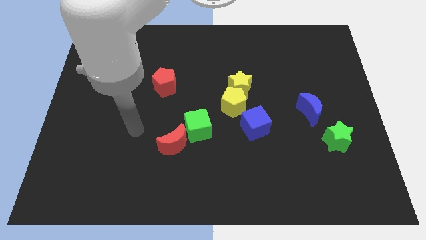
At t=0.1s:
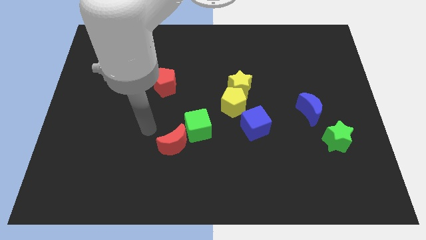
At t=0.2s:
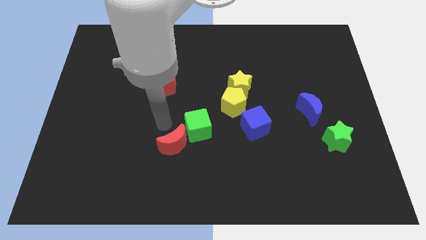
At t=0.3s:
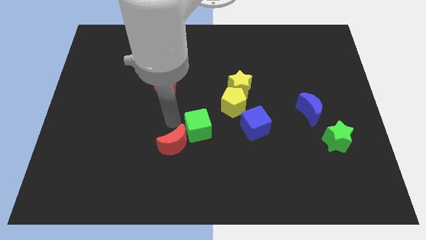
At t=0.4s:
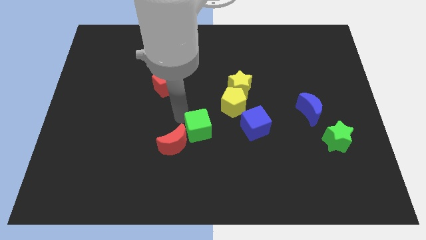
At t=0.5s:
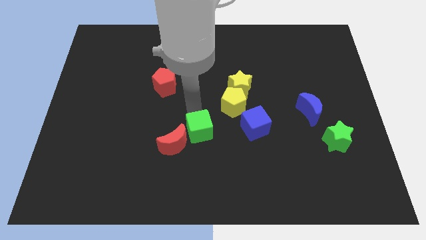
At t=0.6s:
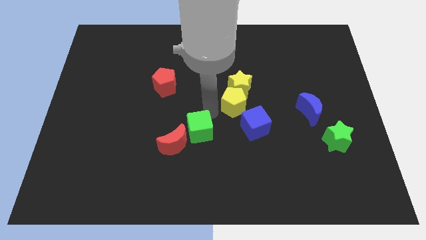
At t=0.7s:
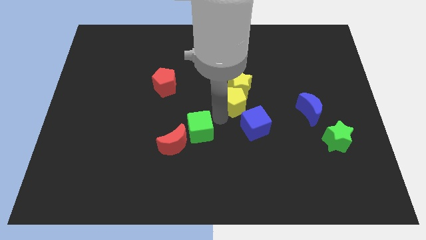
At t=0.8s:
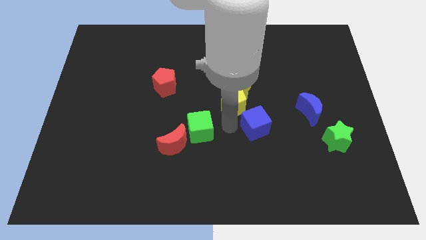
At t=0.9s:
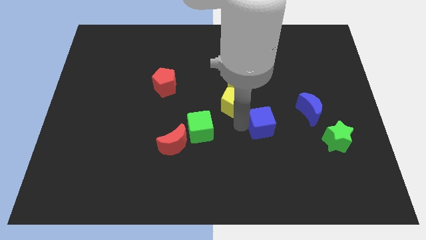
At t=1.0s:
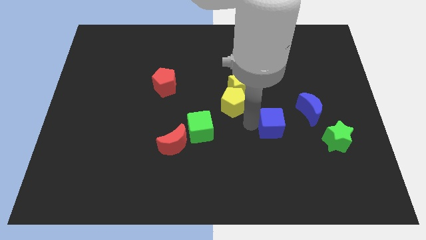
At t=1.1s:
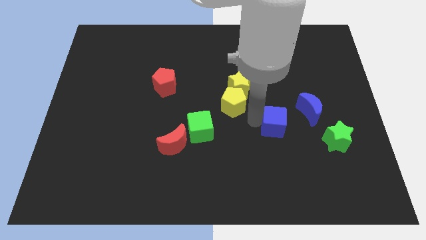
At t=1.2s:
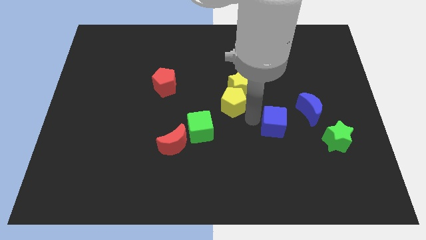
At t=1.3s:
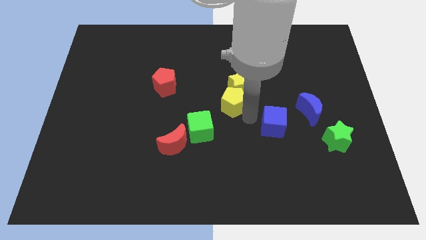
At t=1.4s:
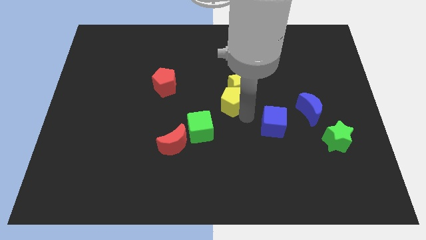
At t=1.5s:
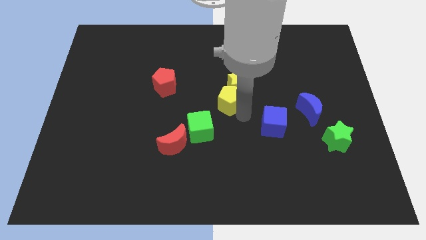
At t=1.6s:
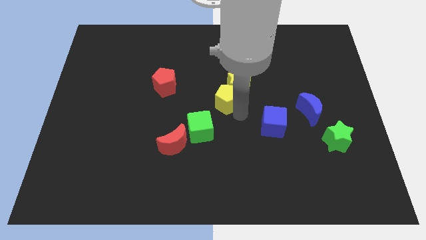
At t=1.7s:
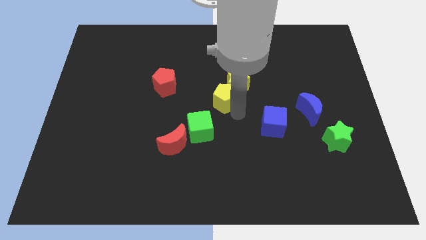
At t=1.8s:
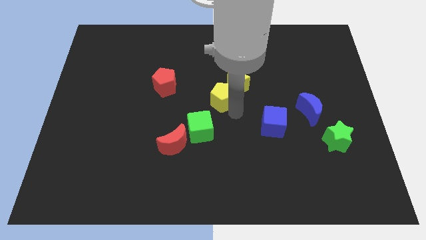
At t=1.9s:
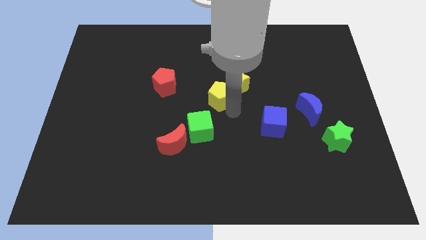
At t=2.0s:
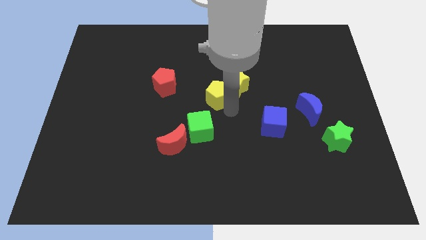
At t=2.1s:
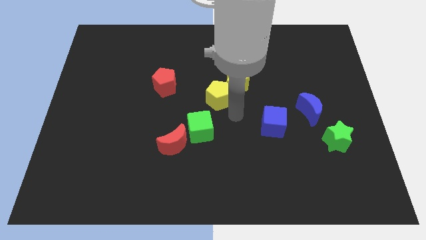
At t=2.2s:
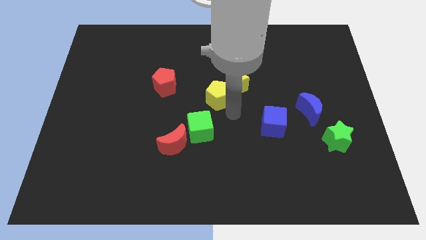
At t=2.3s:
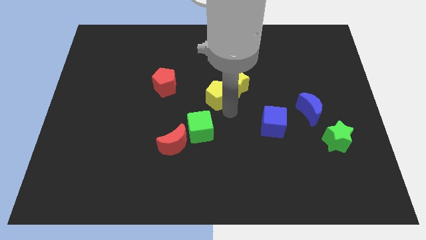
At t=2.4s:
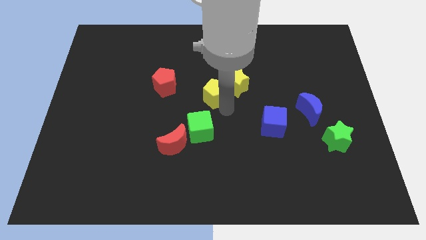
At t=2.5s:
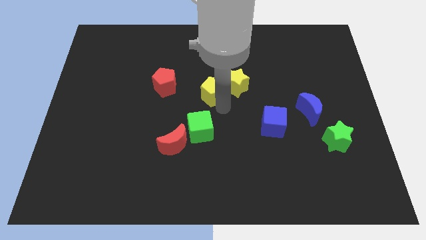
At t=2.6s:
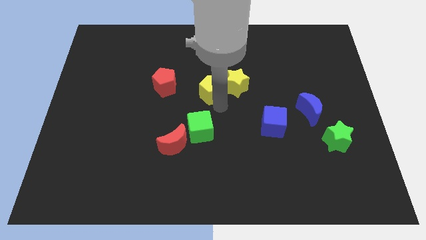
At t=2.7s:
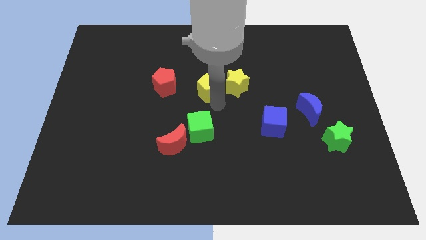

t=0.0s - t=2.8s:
push the yellow pentagon up and then left a bit

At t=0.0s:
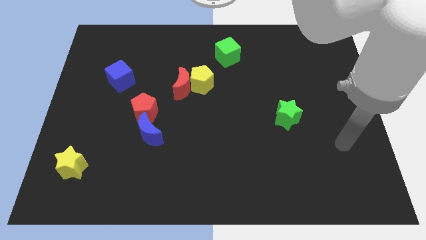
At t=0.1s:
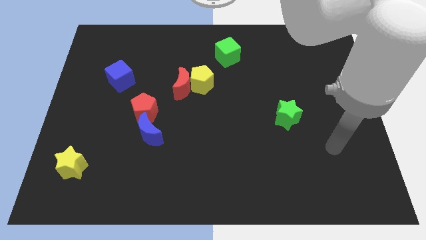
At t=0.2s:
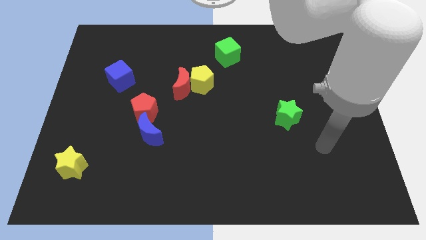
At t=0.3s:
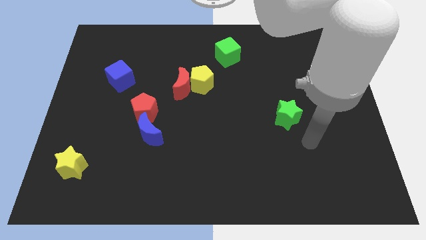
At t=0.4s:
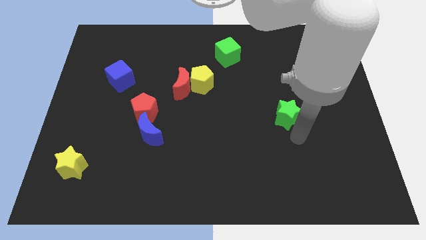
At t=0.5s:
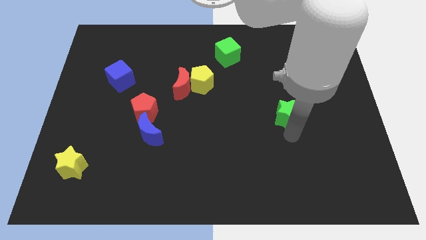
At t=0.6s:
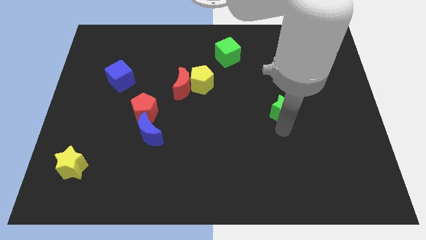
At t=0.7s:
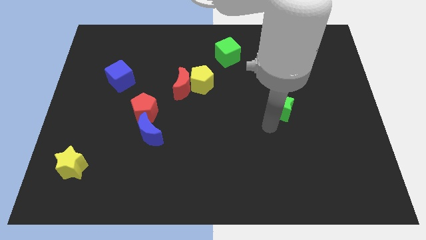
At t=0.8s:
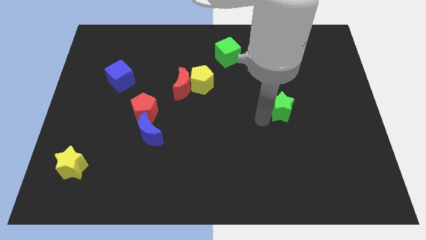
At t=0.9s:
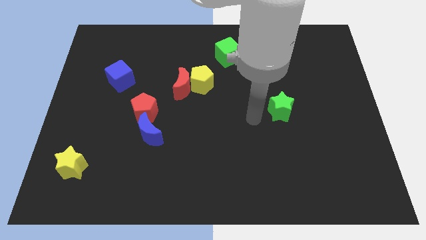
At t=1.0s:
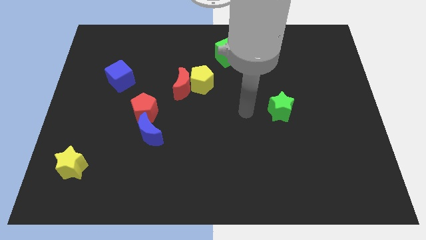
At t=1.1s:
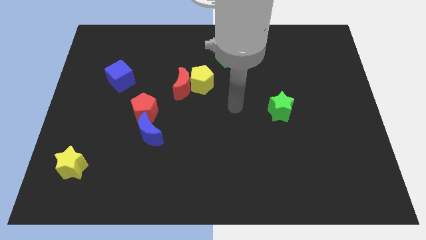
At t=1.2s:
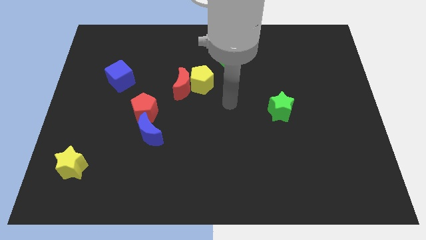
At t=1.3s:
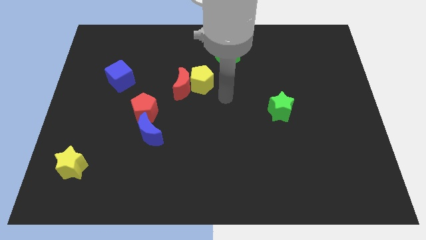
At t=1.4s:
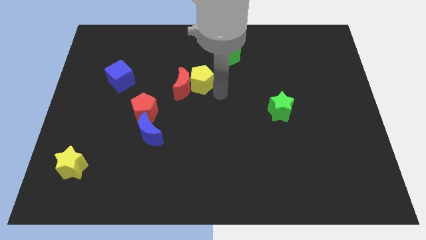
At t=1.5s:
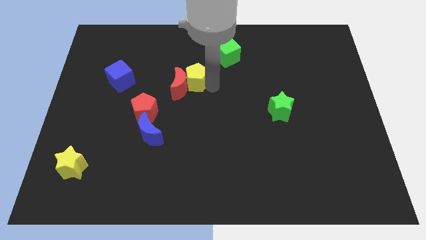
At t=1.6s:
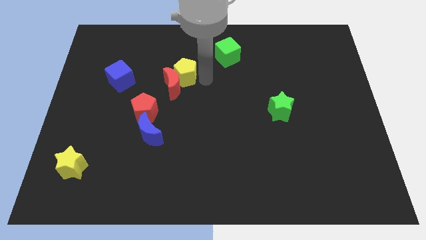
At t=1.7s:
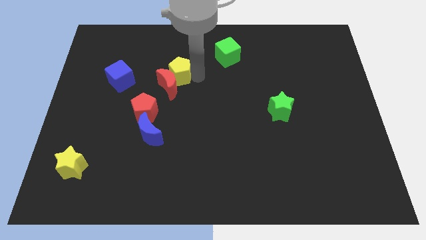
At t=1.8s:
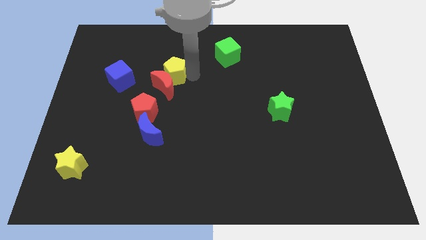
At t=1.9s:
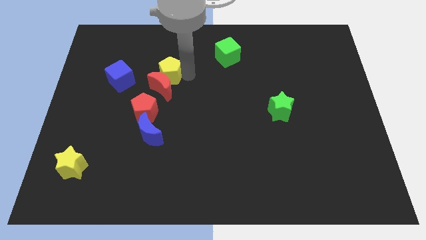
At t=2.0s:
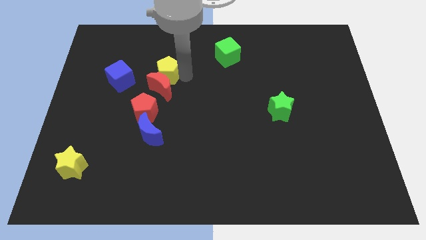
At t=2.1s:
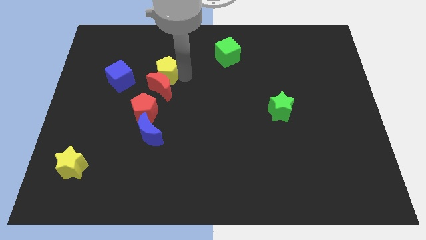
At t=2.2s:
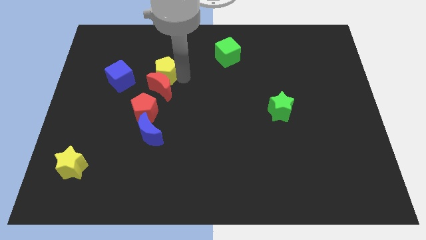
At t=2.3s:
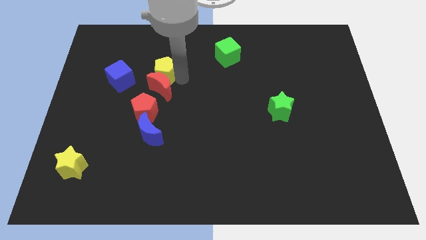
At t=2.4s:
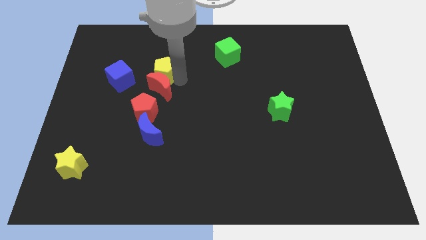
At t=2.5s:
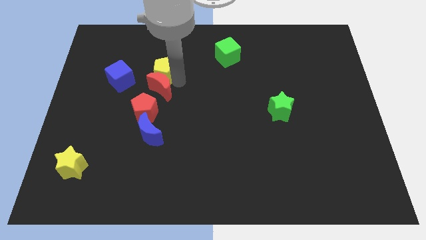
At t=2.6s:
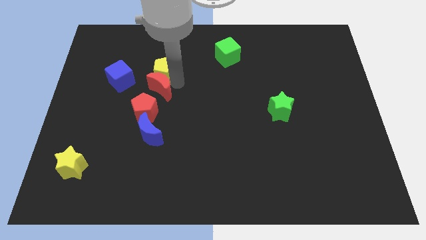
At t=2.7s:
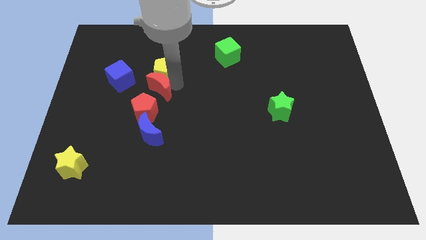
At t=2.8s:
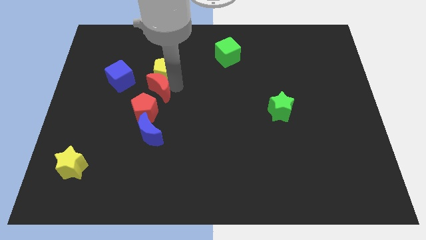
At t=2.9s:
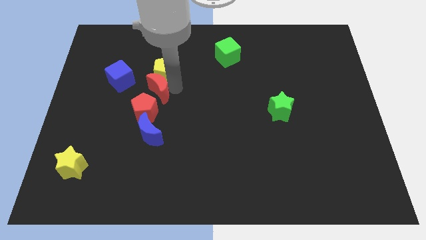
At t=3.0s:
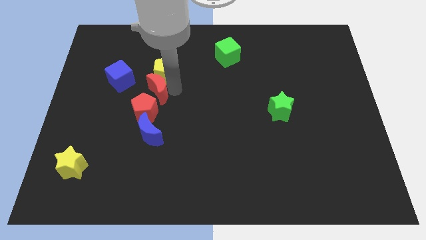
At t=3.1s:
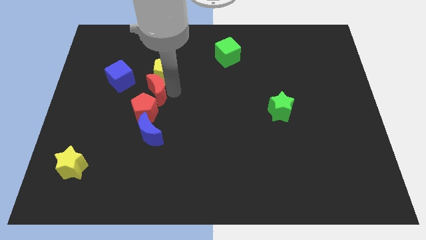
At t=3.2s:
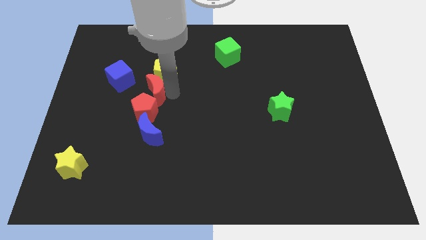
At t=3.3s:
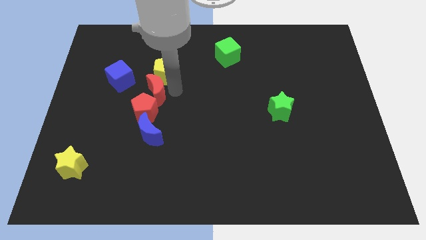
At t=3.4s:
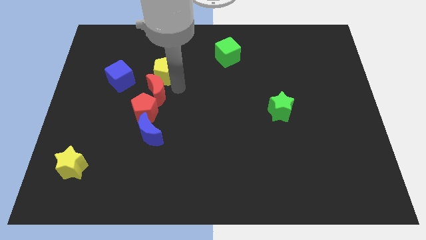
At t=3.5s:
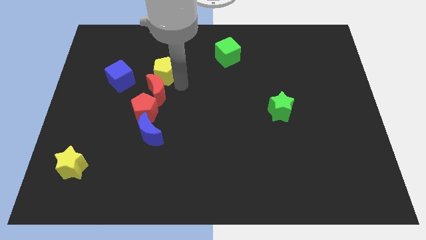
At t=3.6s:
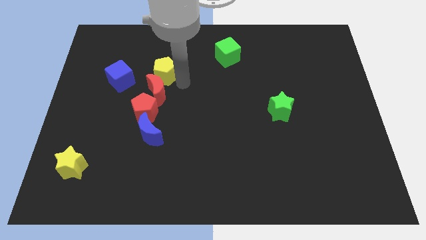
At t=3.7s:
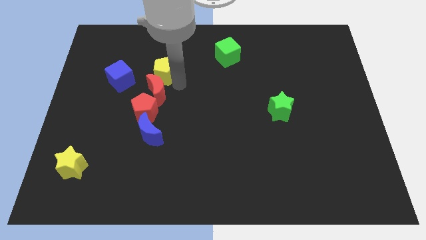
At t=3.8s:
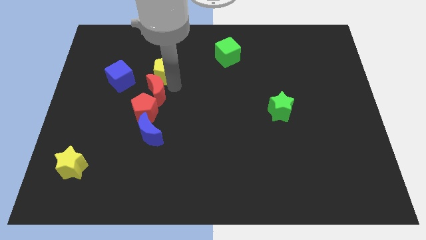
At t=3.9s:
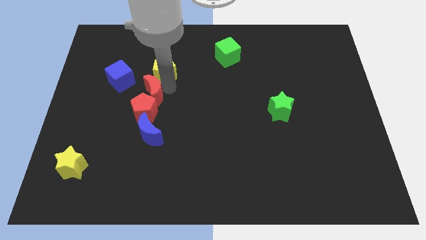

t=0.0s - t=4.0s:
push the red moon to the left slightly

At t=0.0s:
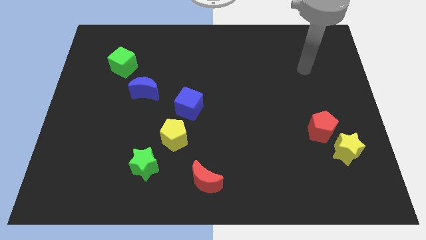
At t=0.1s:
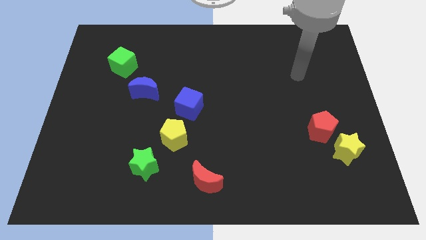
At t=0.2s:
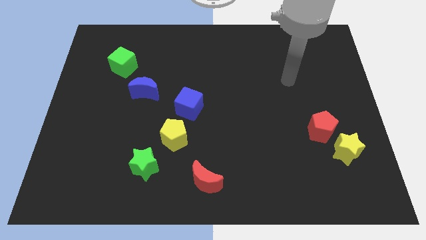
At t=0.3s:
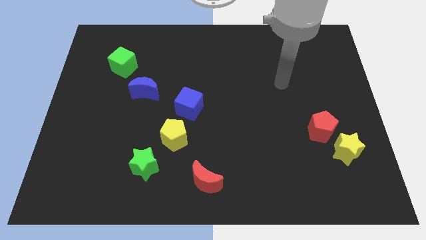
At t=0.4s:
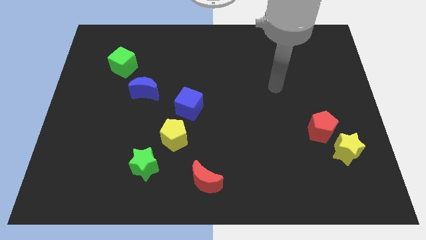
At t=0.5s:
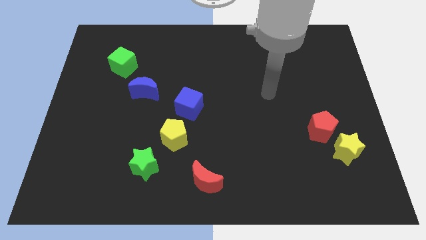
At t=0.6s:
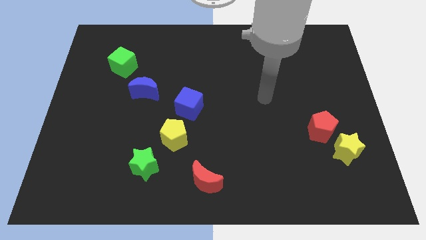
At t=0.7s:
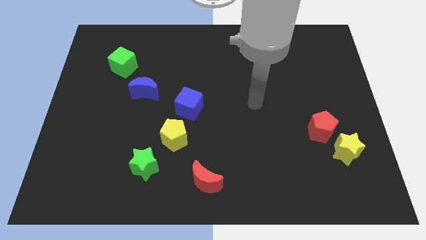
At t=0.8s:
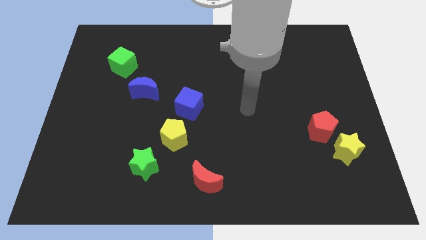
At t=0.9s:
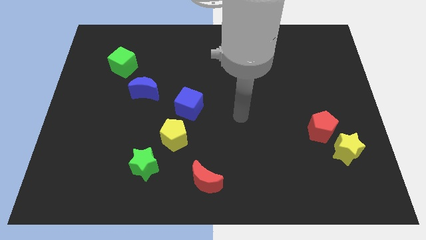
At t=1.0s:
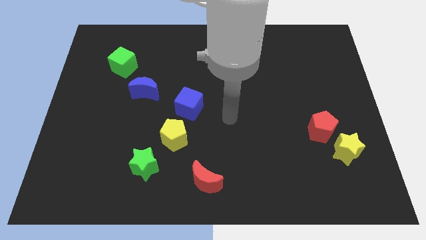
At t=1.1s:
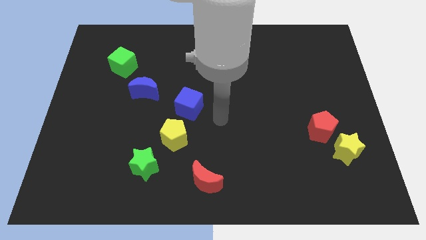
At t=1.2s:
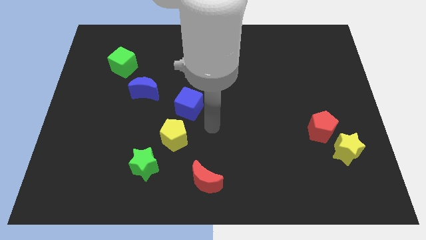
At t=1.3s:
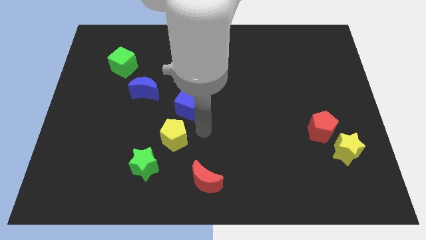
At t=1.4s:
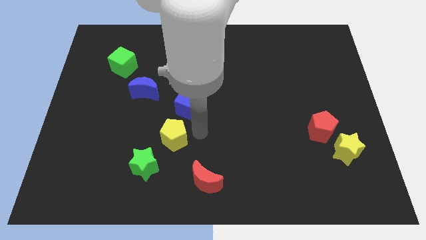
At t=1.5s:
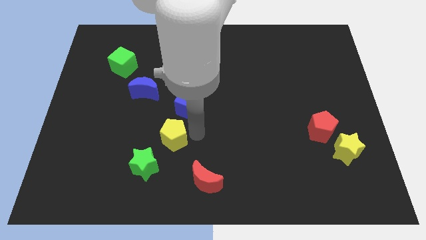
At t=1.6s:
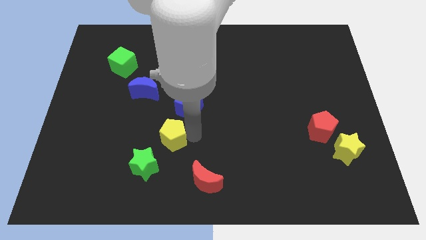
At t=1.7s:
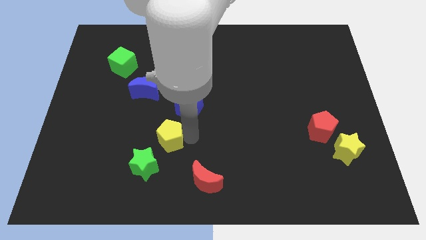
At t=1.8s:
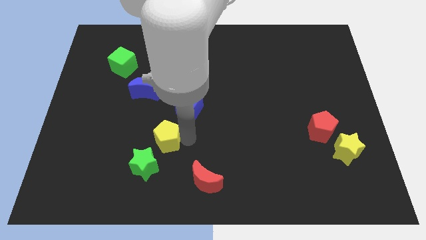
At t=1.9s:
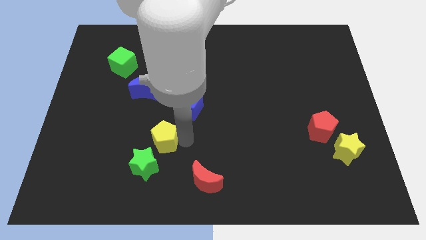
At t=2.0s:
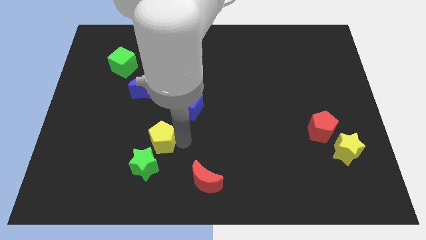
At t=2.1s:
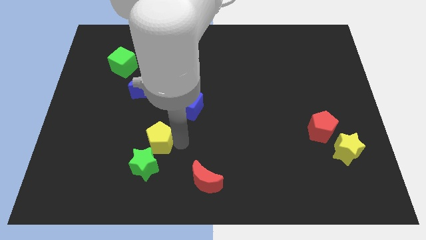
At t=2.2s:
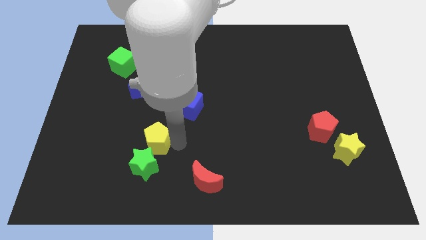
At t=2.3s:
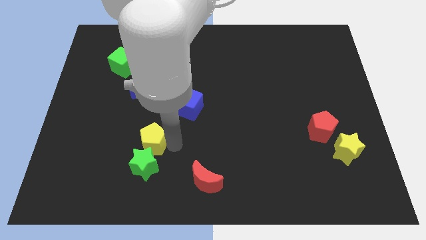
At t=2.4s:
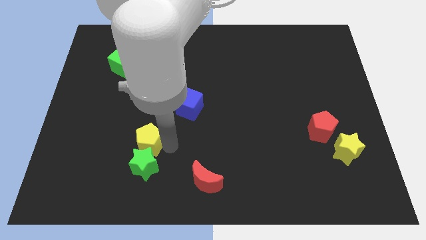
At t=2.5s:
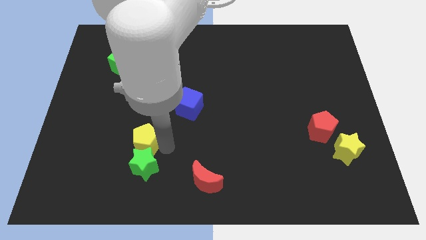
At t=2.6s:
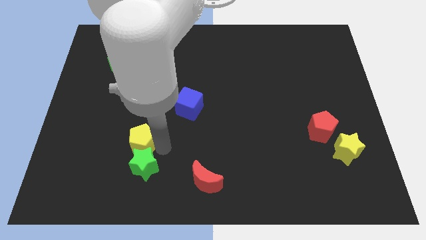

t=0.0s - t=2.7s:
slightly slide the yellow pentagon to the left
